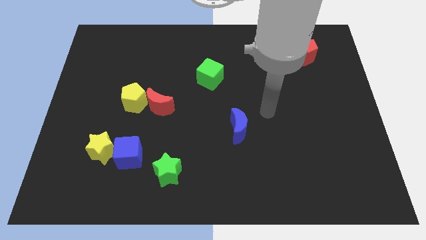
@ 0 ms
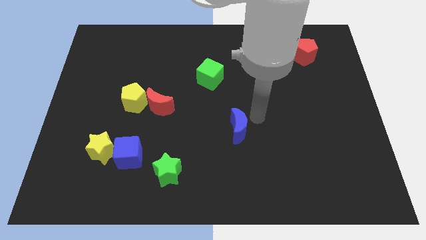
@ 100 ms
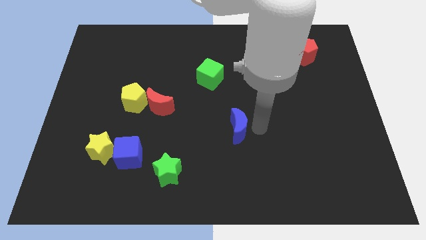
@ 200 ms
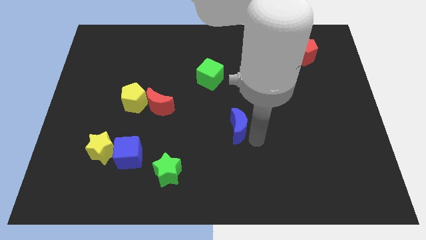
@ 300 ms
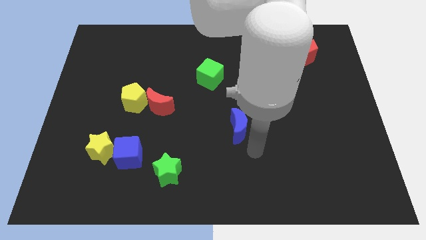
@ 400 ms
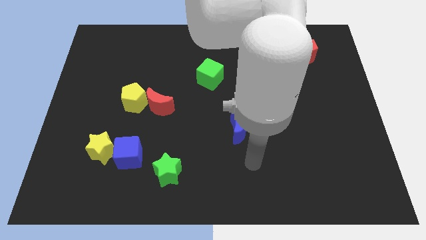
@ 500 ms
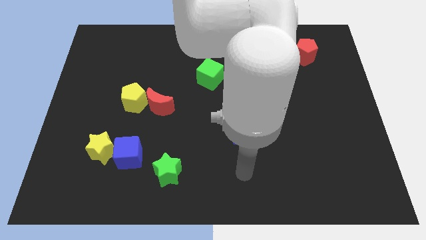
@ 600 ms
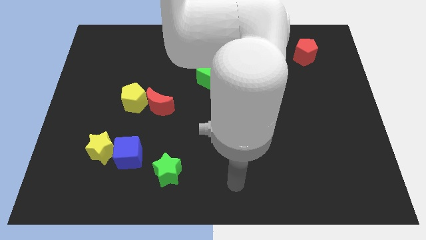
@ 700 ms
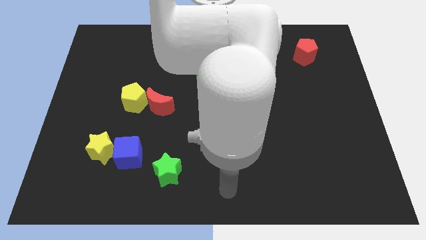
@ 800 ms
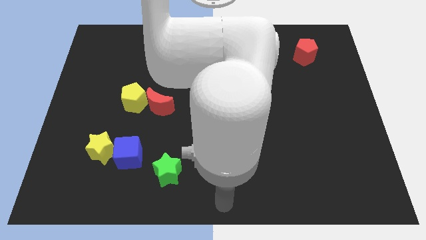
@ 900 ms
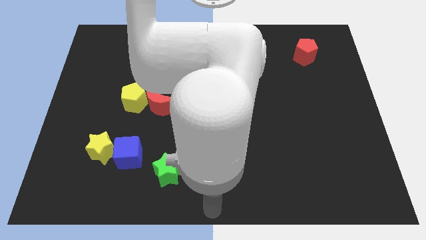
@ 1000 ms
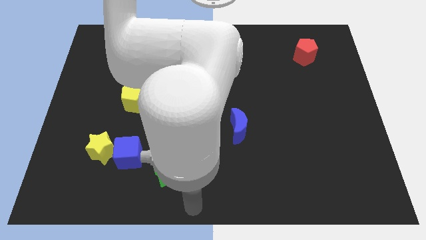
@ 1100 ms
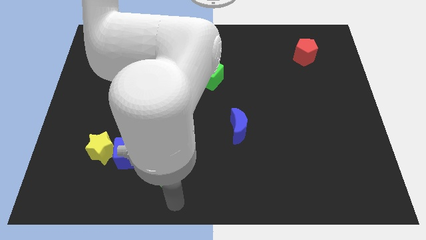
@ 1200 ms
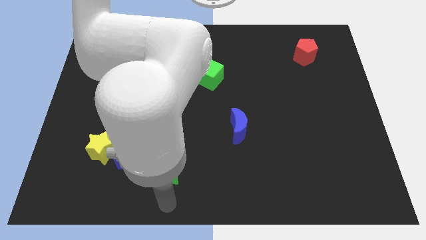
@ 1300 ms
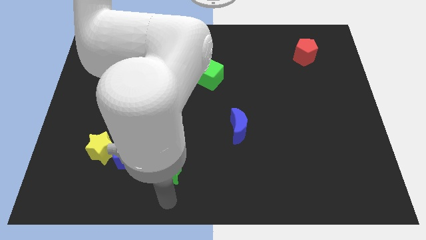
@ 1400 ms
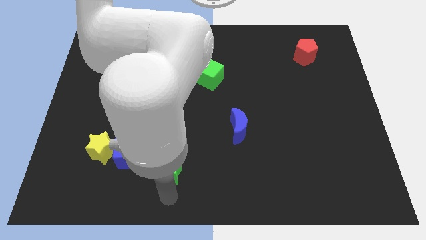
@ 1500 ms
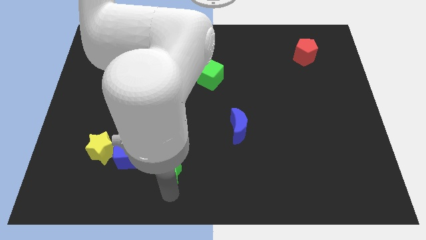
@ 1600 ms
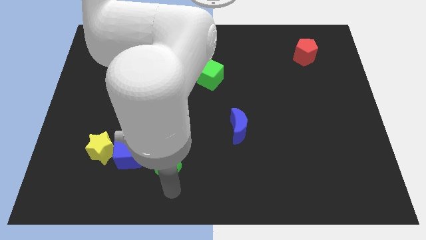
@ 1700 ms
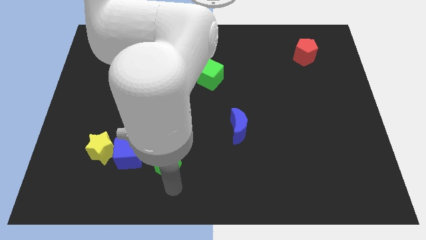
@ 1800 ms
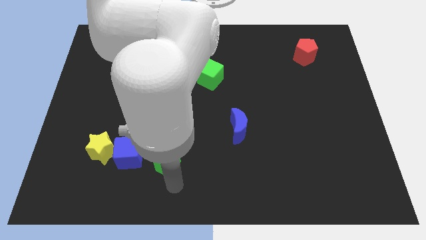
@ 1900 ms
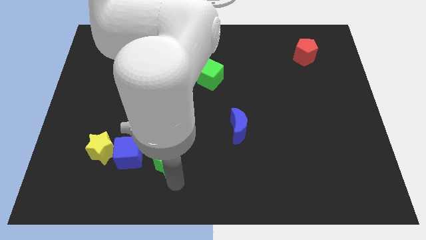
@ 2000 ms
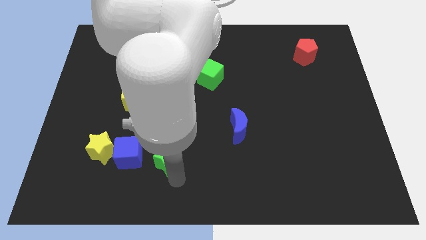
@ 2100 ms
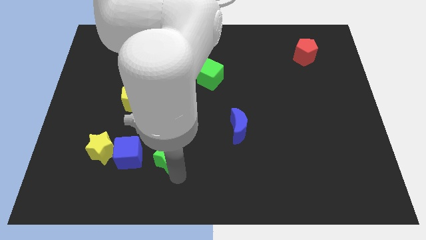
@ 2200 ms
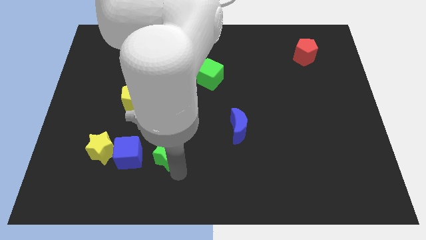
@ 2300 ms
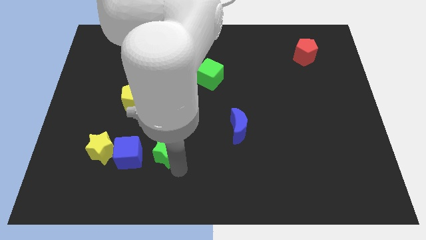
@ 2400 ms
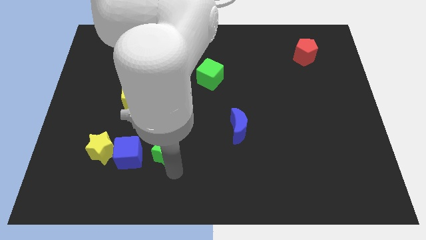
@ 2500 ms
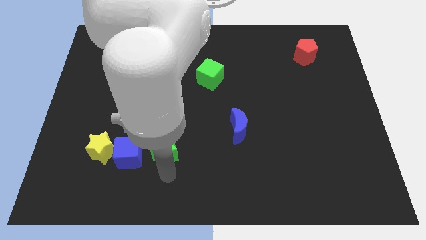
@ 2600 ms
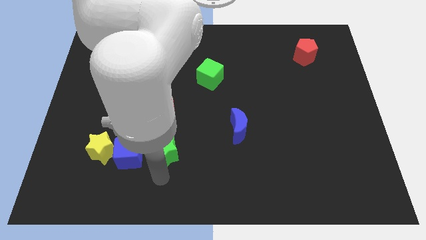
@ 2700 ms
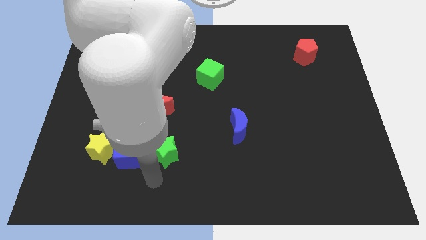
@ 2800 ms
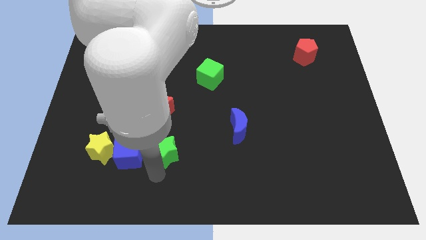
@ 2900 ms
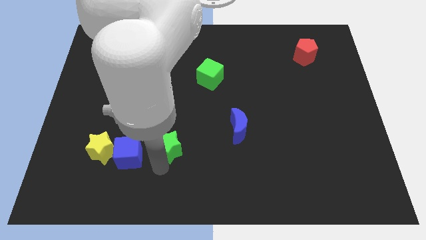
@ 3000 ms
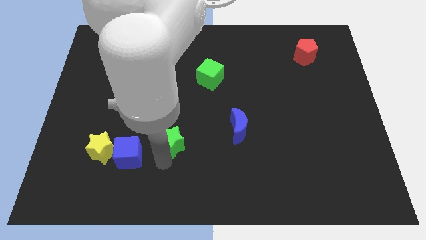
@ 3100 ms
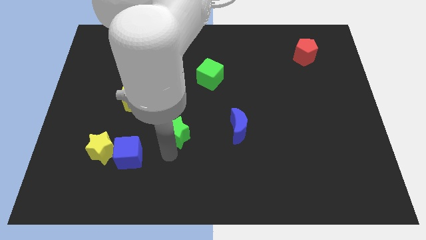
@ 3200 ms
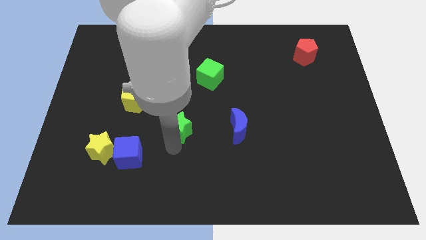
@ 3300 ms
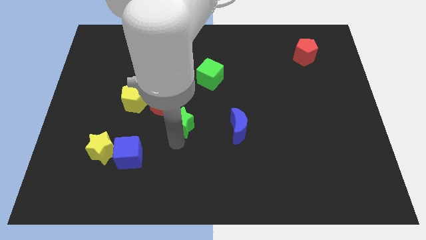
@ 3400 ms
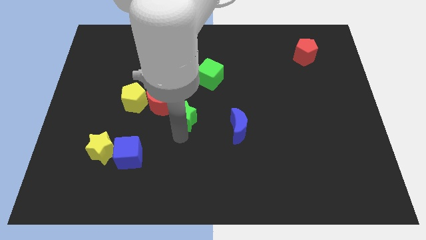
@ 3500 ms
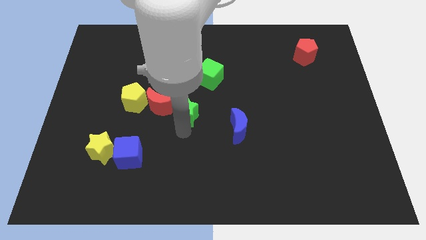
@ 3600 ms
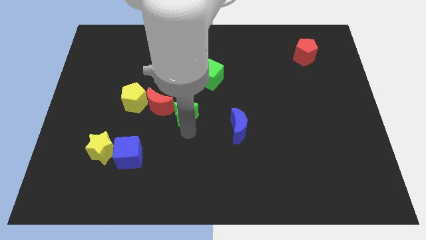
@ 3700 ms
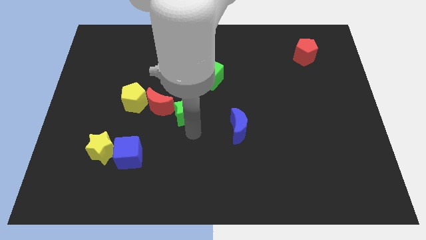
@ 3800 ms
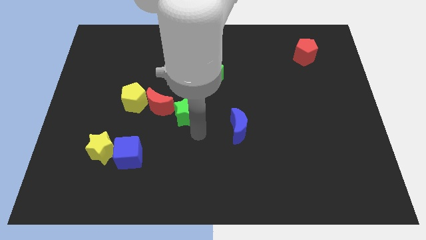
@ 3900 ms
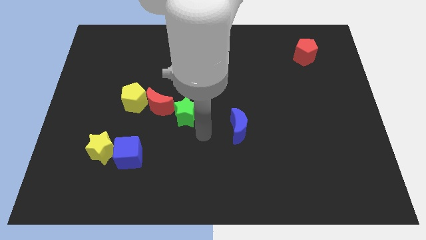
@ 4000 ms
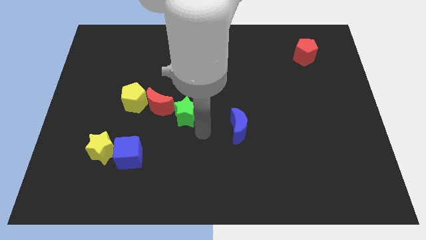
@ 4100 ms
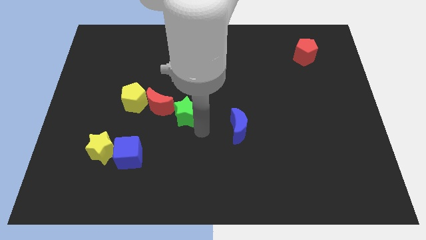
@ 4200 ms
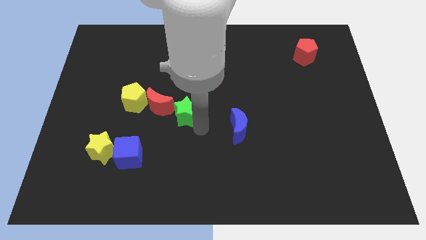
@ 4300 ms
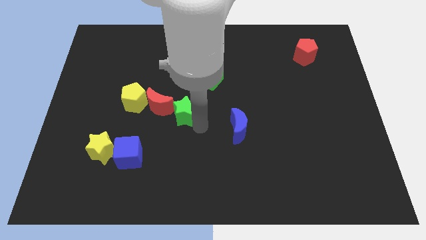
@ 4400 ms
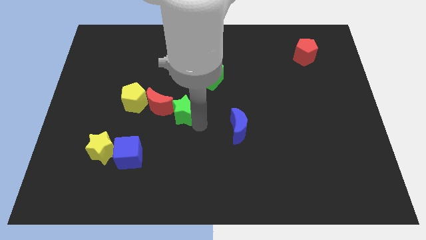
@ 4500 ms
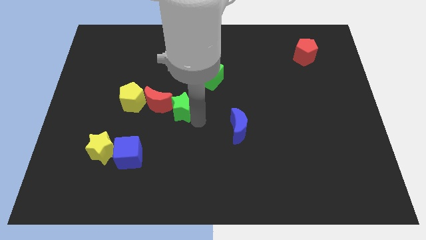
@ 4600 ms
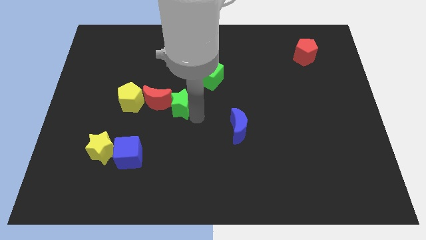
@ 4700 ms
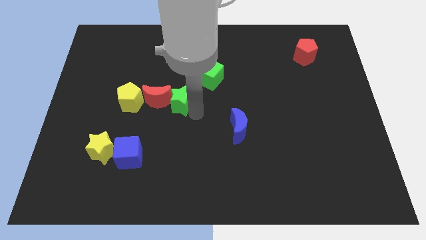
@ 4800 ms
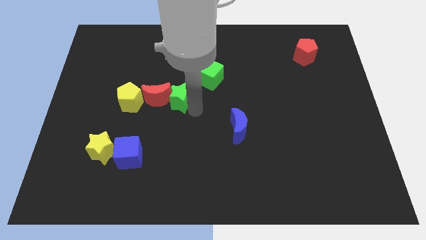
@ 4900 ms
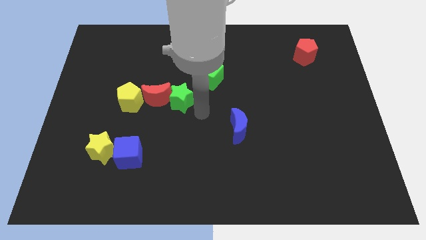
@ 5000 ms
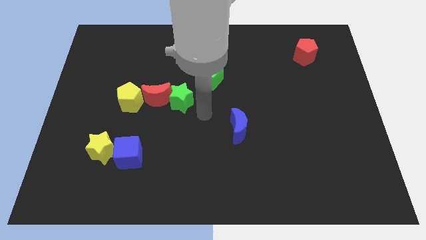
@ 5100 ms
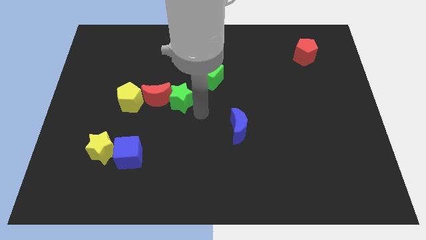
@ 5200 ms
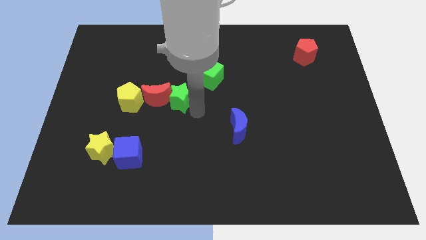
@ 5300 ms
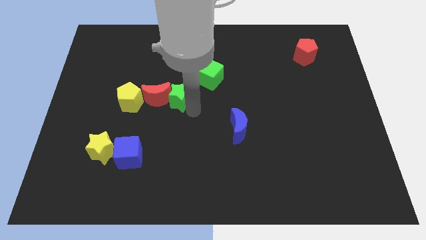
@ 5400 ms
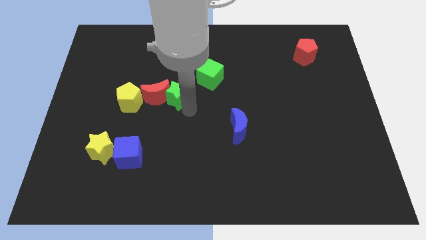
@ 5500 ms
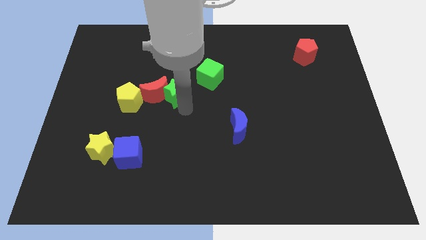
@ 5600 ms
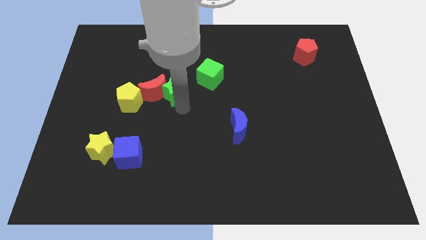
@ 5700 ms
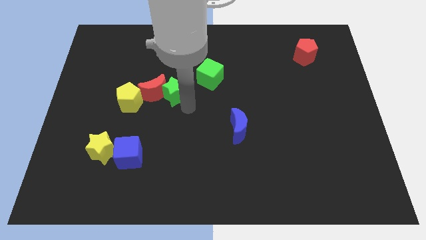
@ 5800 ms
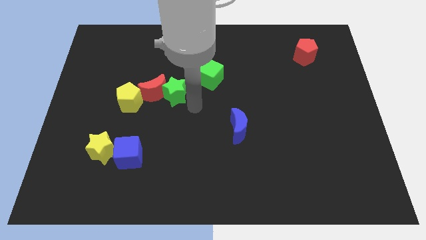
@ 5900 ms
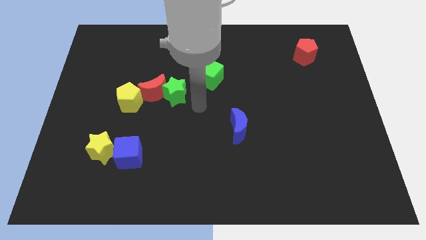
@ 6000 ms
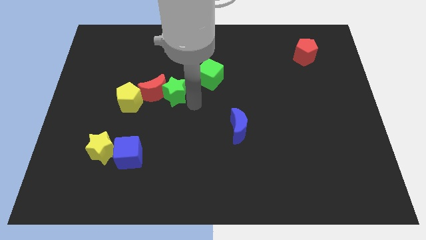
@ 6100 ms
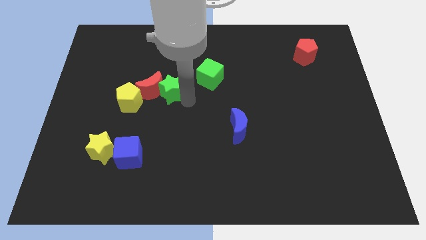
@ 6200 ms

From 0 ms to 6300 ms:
slide the green star to the top right of the yellow pentagon
